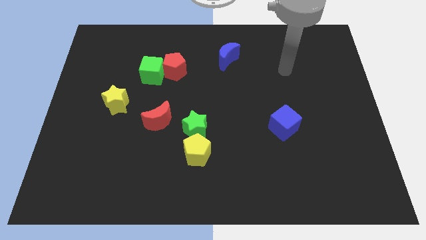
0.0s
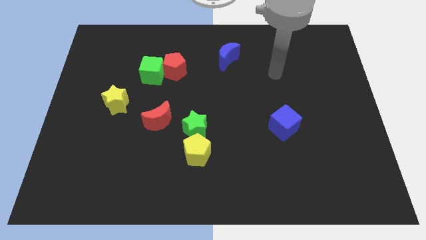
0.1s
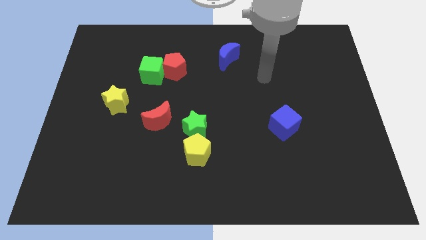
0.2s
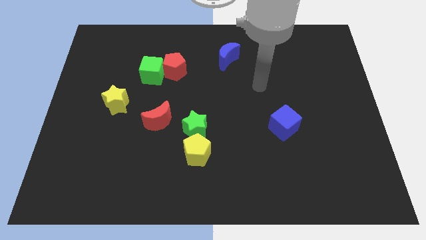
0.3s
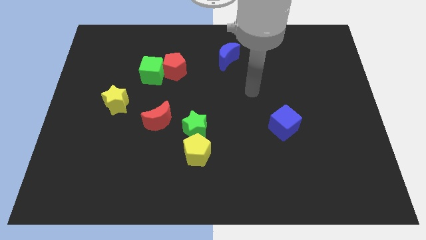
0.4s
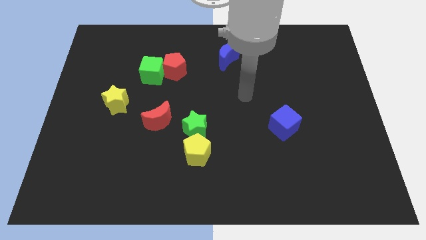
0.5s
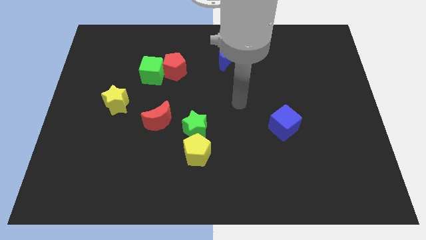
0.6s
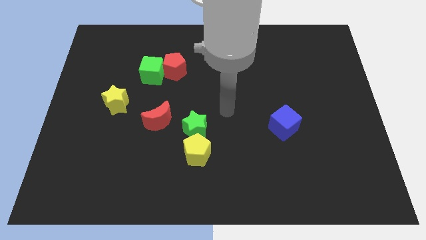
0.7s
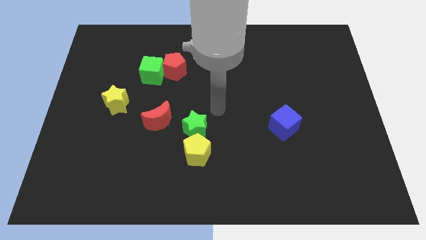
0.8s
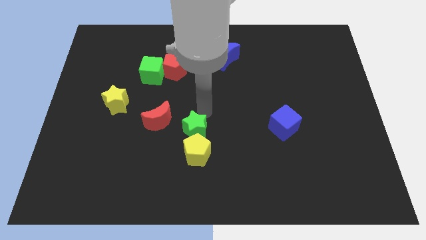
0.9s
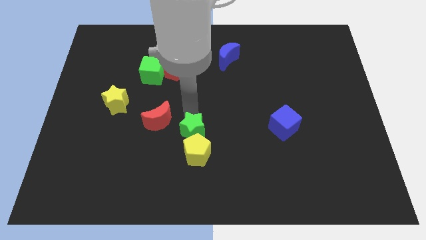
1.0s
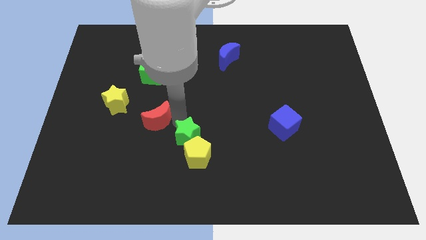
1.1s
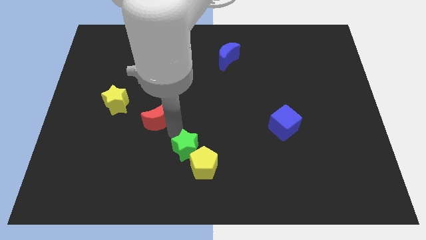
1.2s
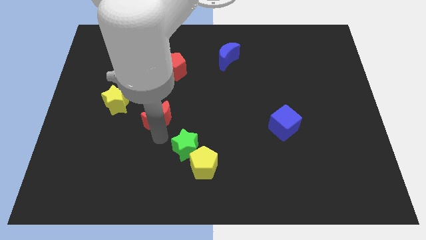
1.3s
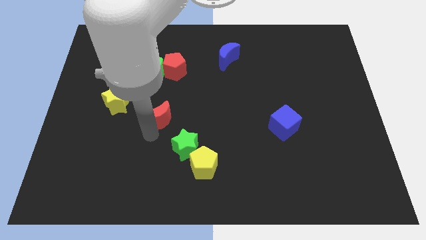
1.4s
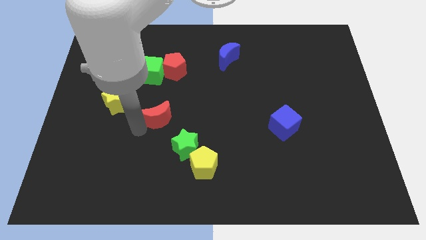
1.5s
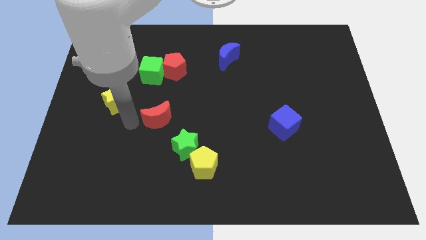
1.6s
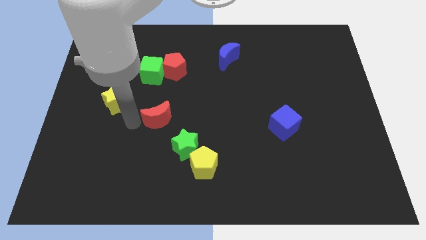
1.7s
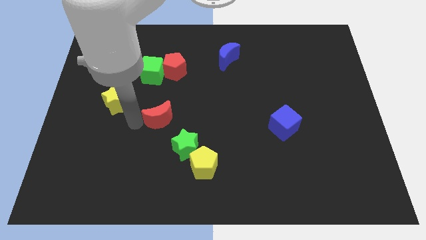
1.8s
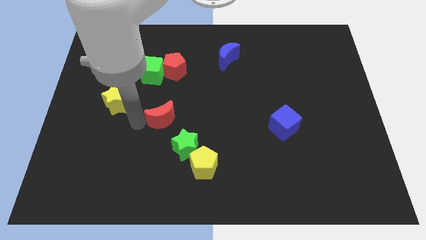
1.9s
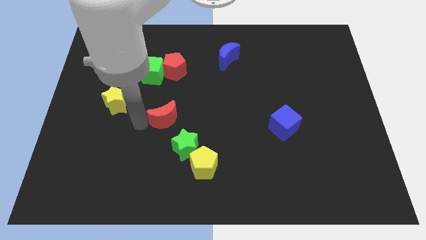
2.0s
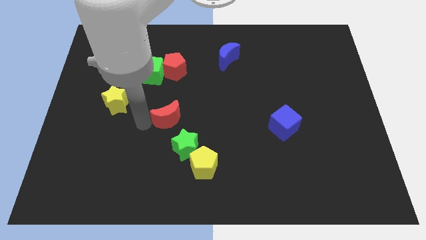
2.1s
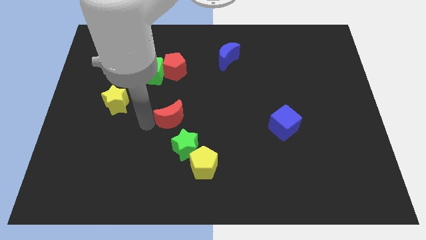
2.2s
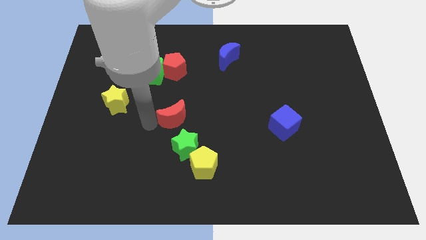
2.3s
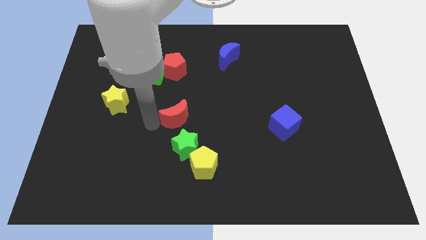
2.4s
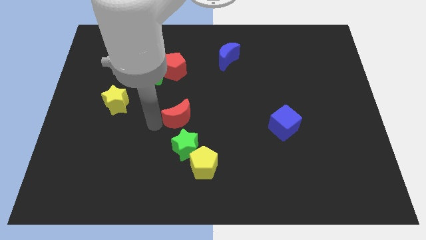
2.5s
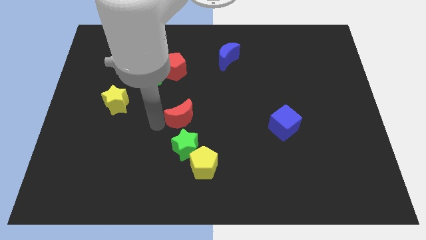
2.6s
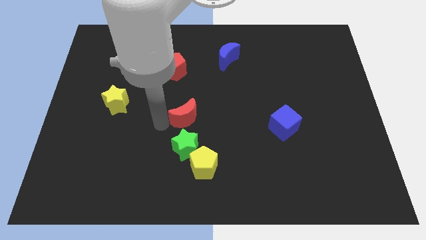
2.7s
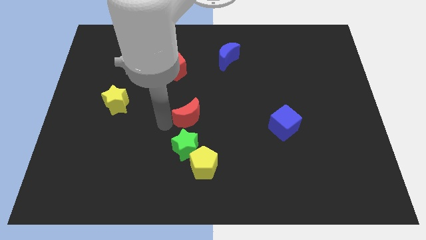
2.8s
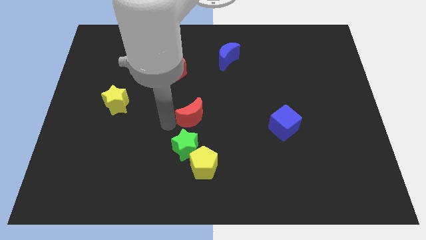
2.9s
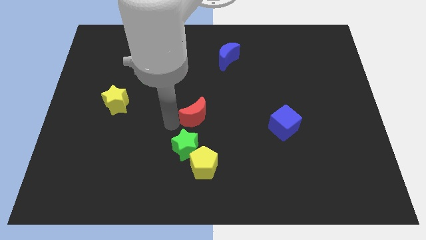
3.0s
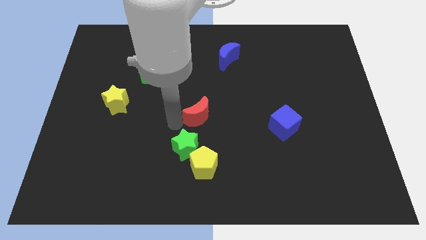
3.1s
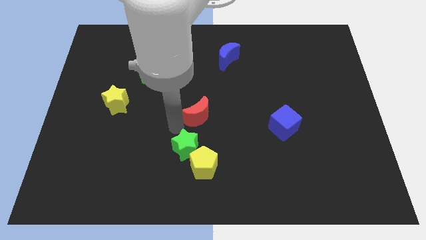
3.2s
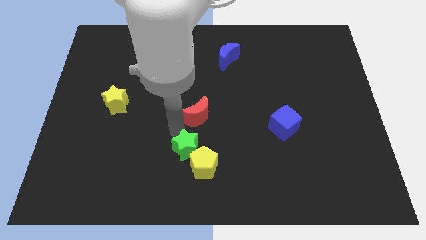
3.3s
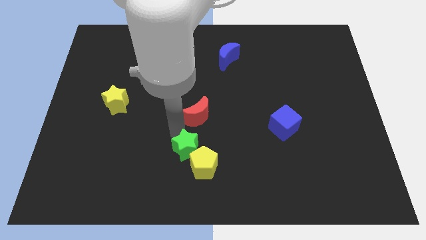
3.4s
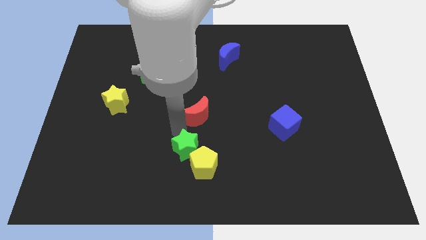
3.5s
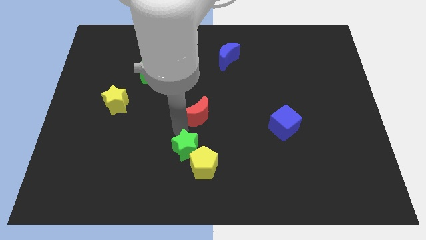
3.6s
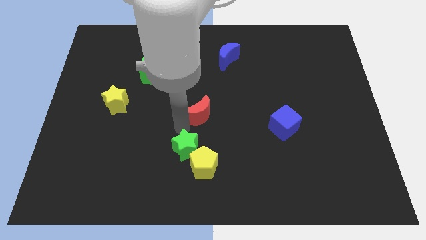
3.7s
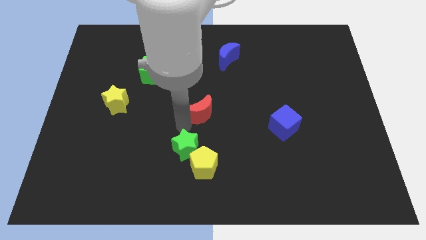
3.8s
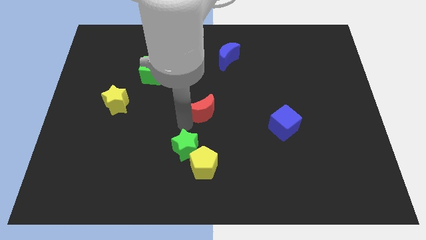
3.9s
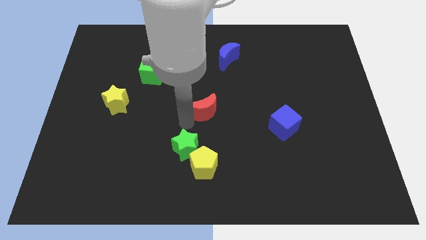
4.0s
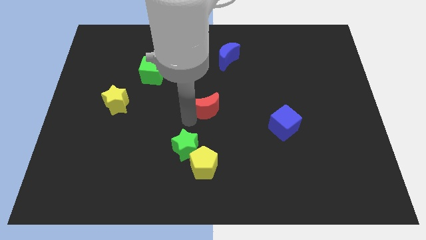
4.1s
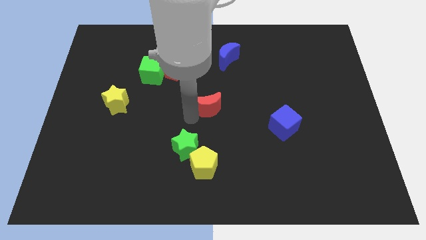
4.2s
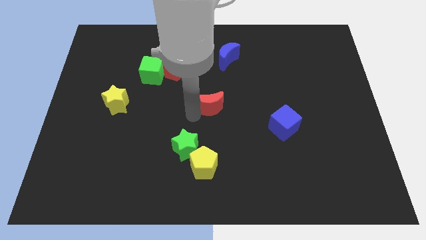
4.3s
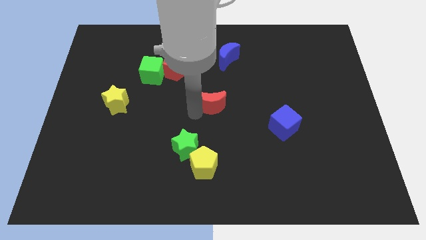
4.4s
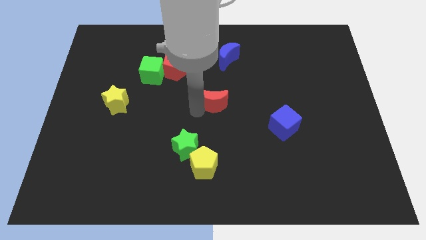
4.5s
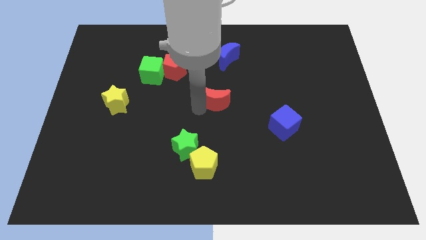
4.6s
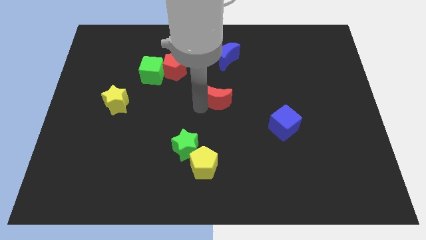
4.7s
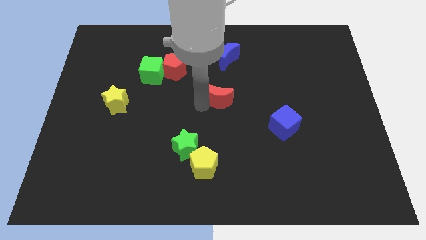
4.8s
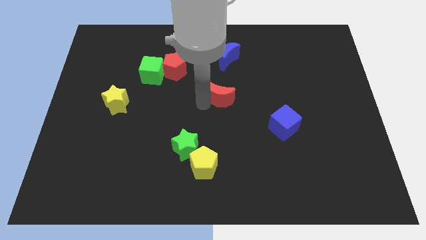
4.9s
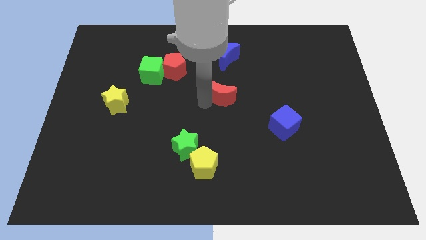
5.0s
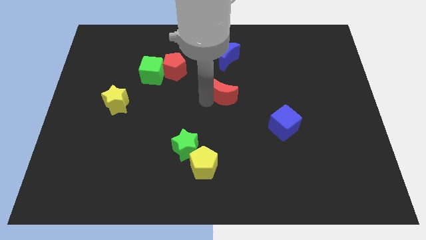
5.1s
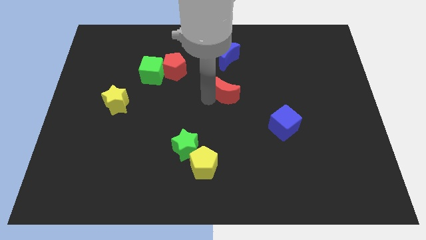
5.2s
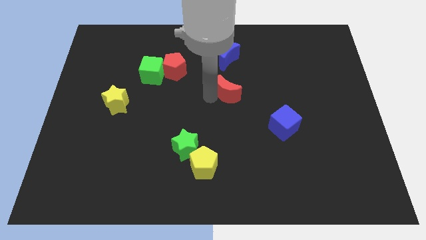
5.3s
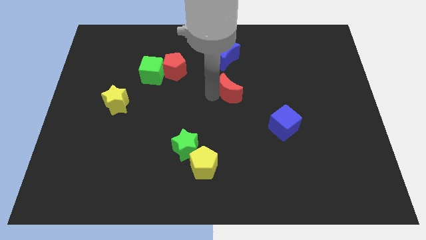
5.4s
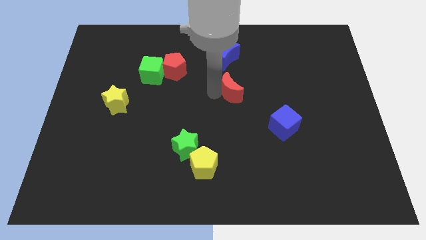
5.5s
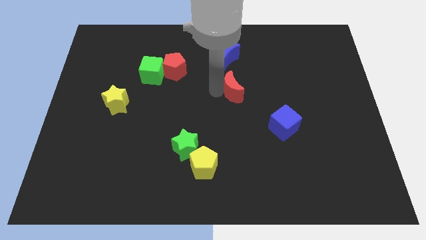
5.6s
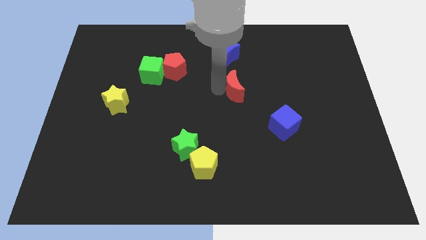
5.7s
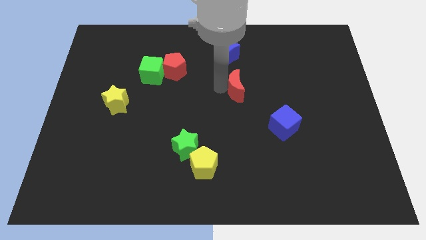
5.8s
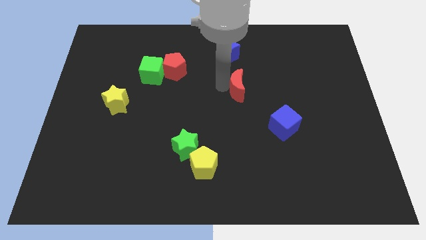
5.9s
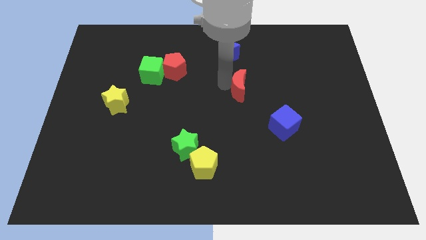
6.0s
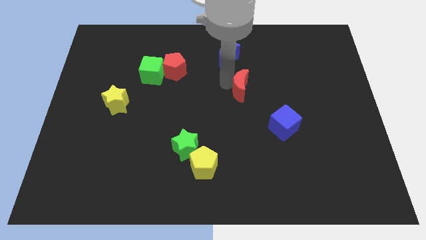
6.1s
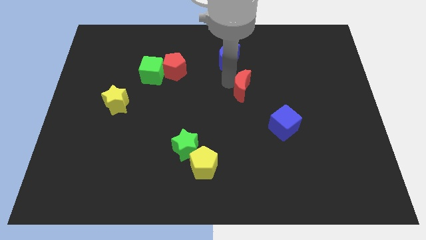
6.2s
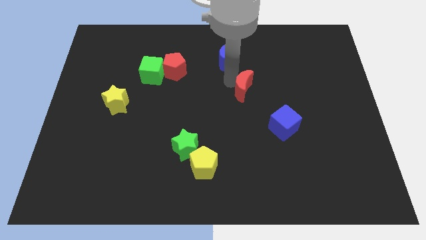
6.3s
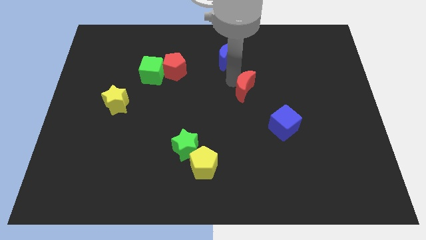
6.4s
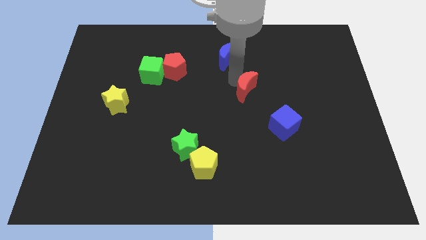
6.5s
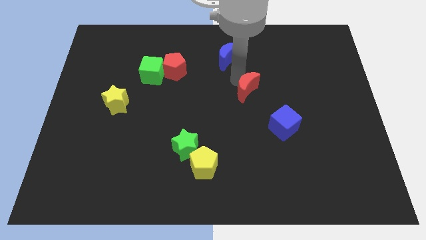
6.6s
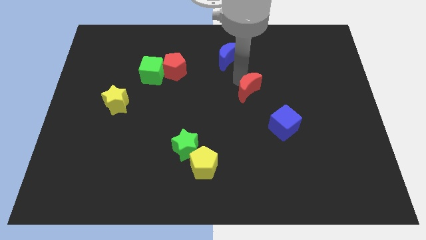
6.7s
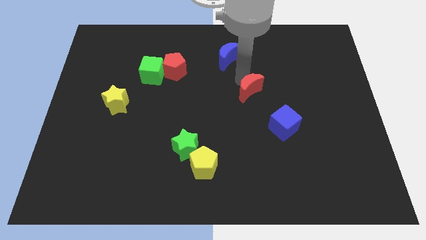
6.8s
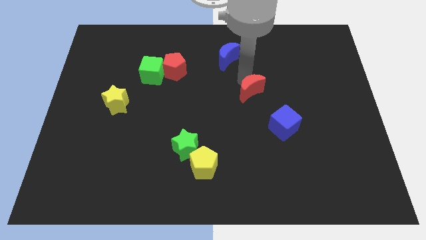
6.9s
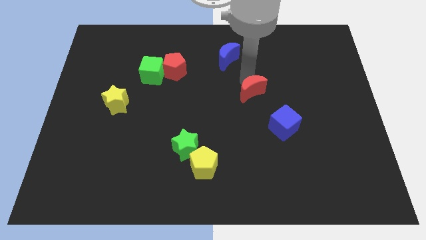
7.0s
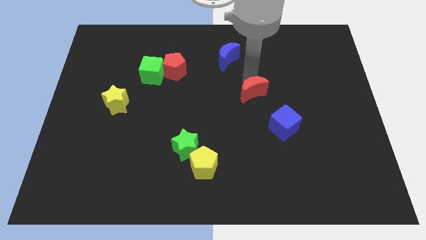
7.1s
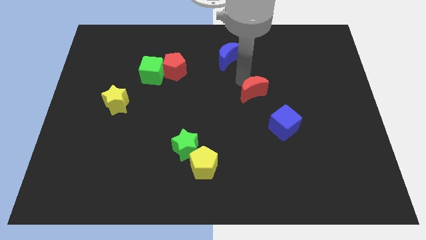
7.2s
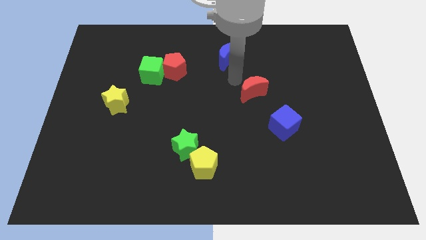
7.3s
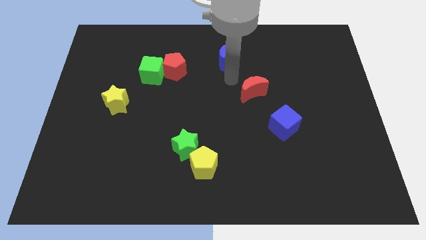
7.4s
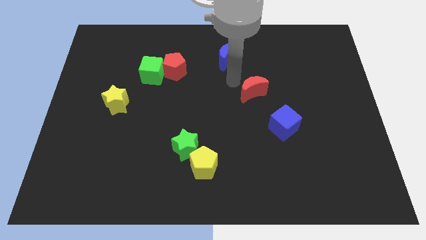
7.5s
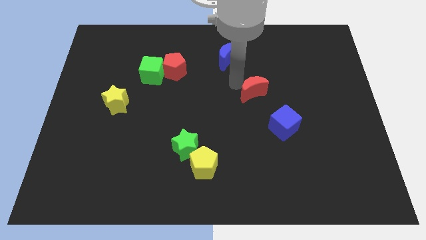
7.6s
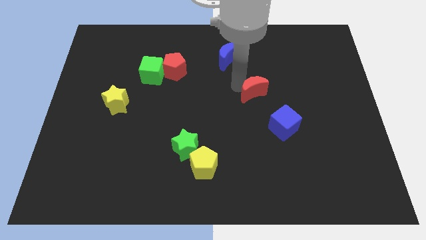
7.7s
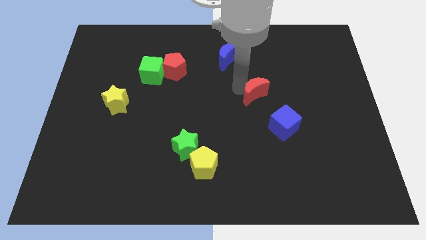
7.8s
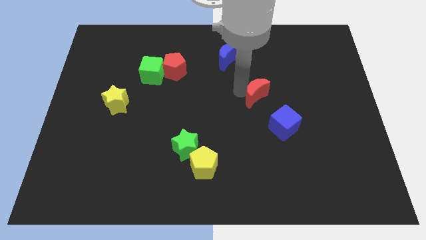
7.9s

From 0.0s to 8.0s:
slide the red moon right

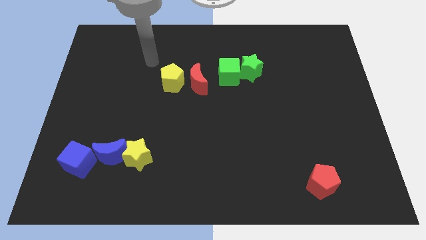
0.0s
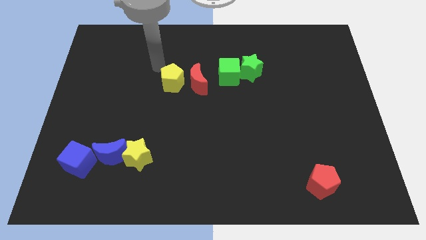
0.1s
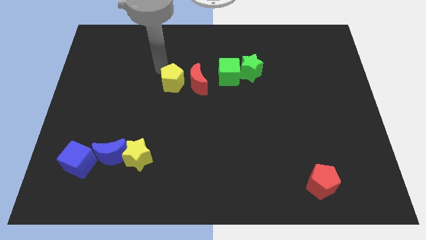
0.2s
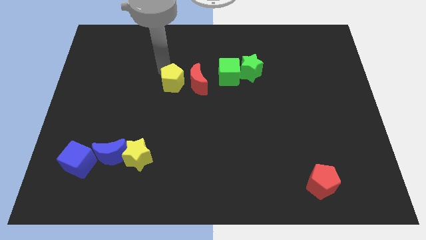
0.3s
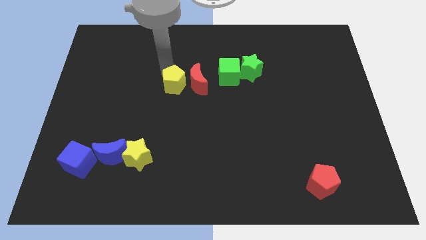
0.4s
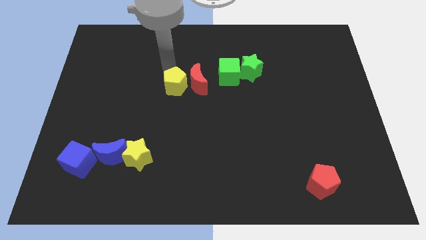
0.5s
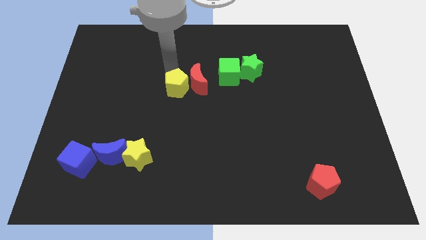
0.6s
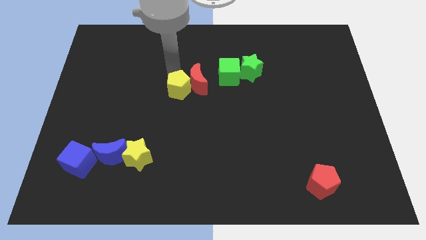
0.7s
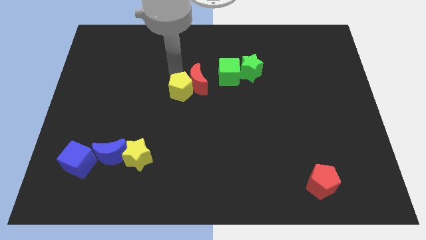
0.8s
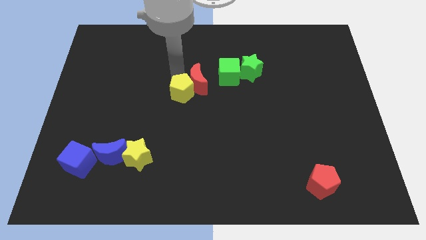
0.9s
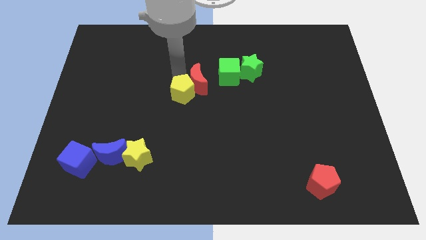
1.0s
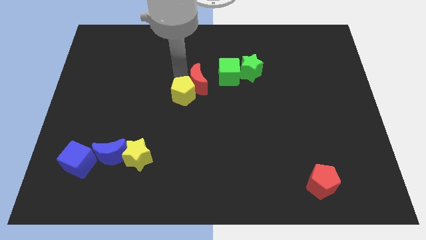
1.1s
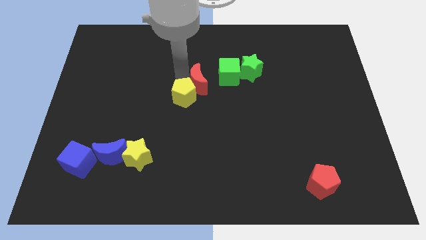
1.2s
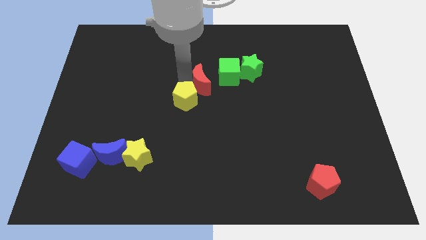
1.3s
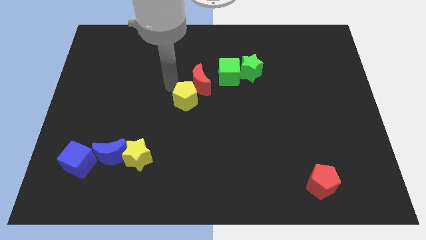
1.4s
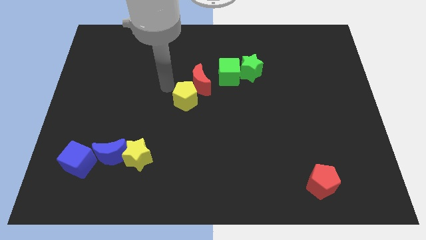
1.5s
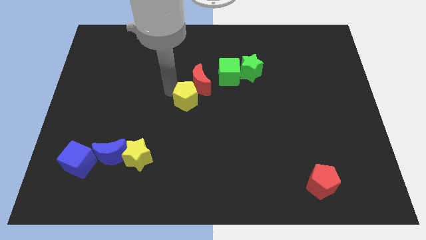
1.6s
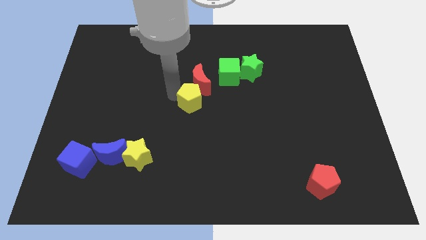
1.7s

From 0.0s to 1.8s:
push the yellow pentagon a little down and to the right diagonally
